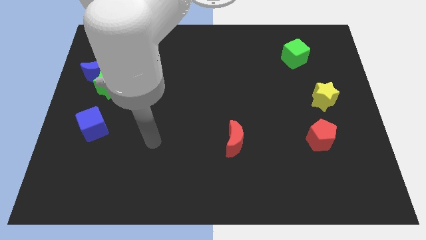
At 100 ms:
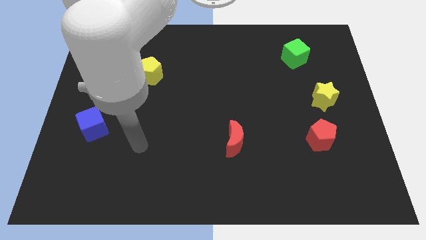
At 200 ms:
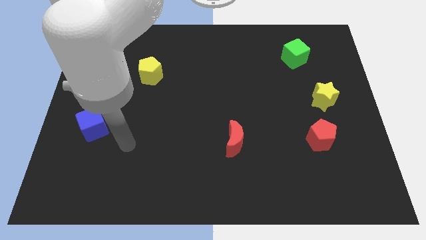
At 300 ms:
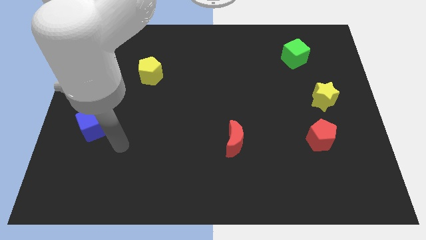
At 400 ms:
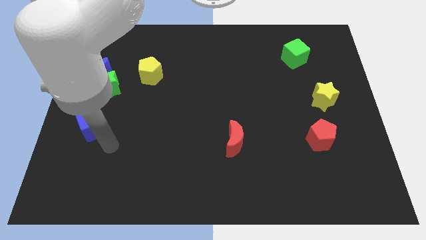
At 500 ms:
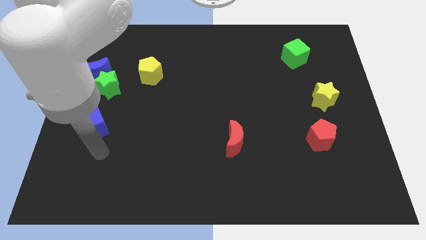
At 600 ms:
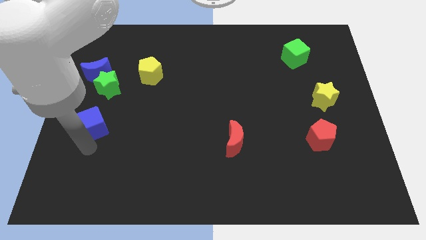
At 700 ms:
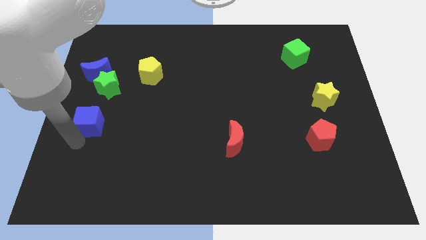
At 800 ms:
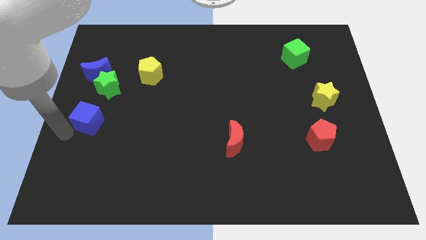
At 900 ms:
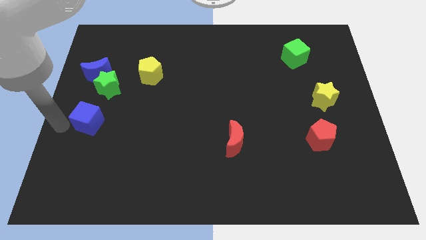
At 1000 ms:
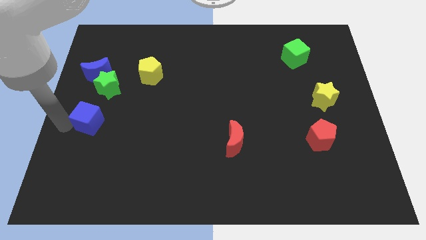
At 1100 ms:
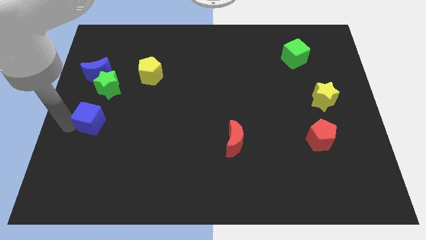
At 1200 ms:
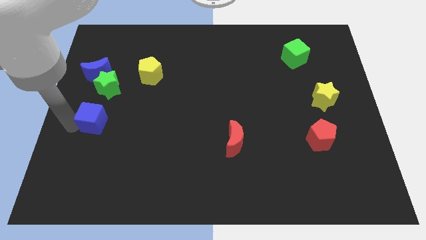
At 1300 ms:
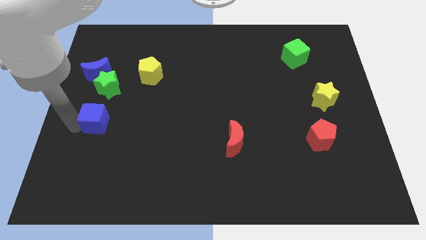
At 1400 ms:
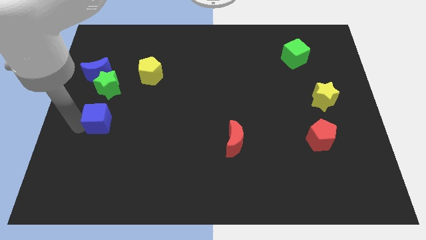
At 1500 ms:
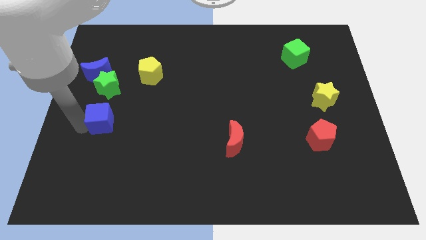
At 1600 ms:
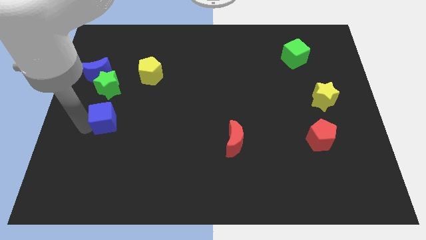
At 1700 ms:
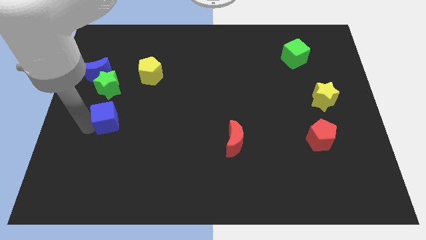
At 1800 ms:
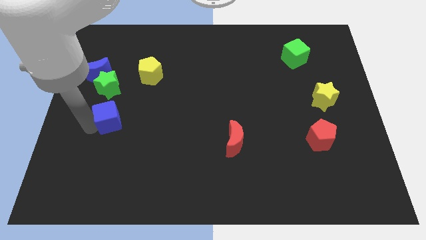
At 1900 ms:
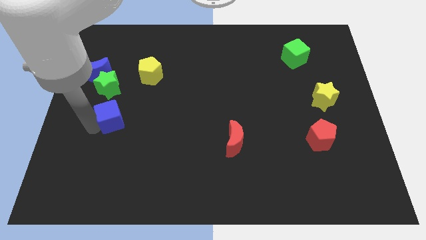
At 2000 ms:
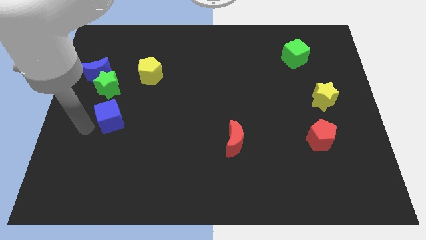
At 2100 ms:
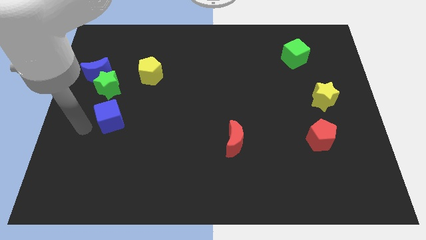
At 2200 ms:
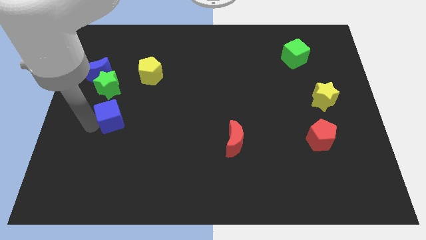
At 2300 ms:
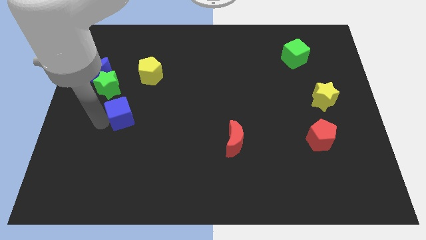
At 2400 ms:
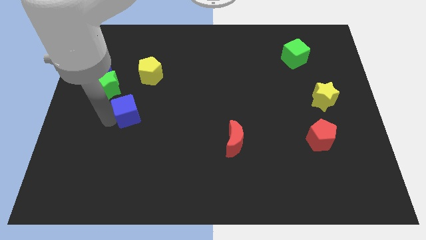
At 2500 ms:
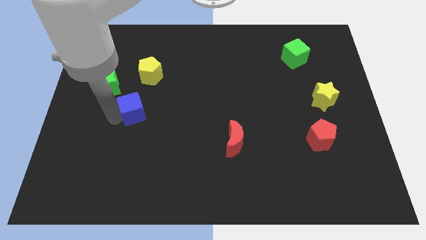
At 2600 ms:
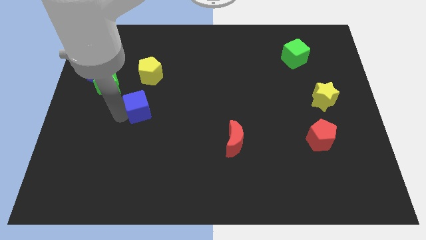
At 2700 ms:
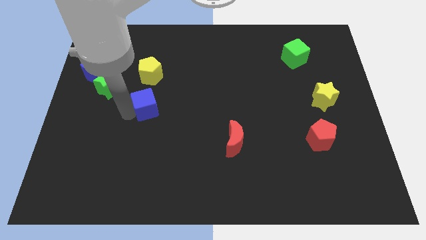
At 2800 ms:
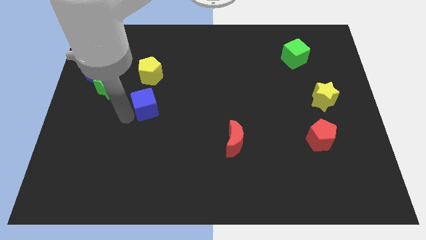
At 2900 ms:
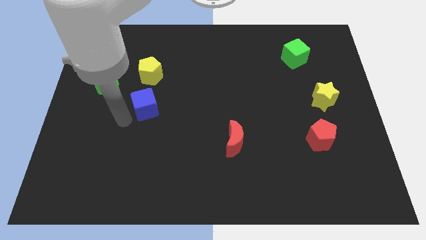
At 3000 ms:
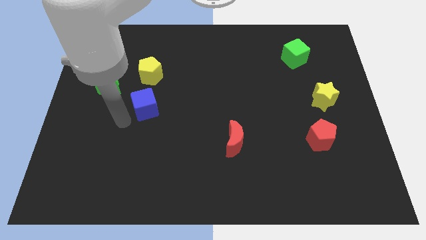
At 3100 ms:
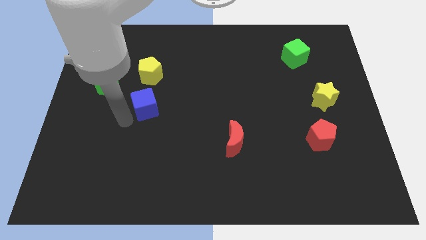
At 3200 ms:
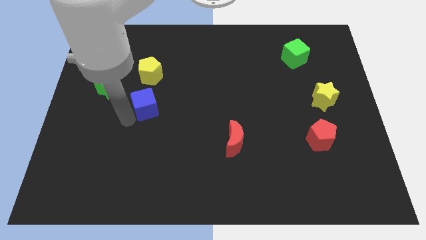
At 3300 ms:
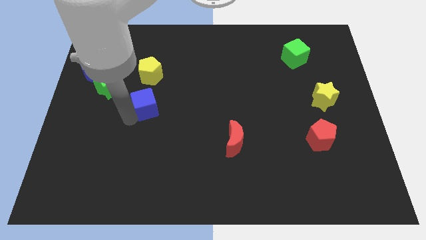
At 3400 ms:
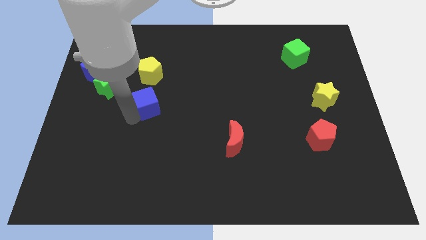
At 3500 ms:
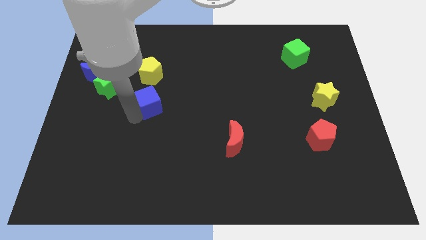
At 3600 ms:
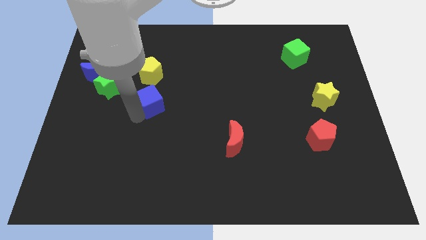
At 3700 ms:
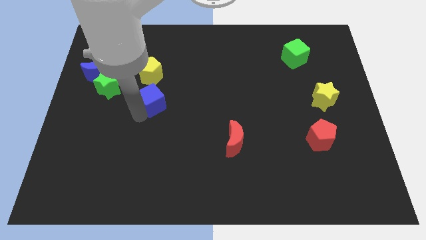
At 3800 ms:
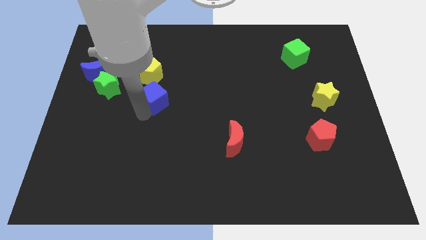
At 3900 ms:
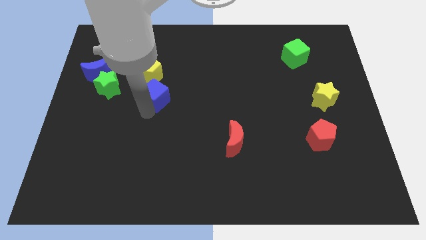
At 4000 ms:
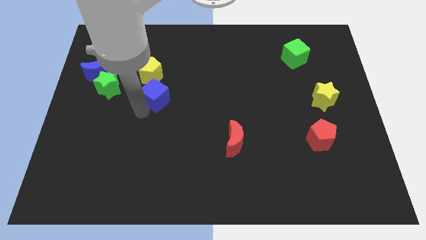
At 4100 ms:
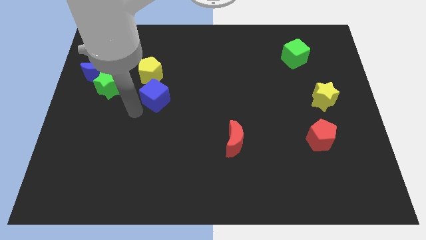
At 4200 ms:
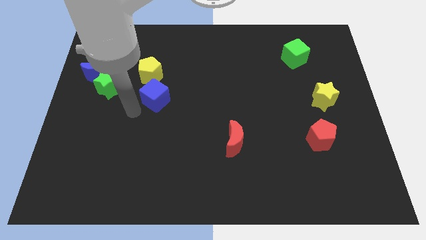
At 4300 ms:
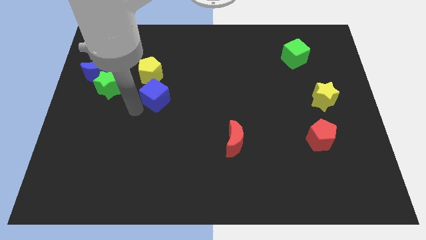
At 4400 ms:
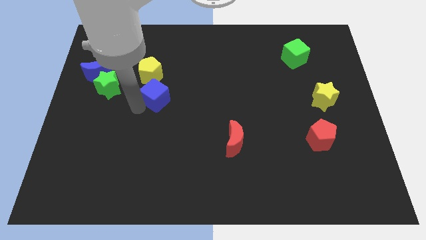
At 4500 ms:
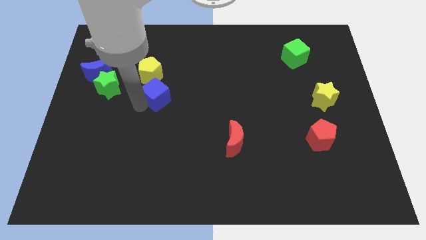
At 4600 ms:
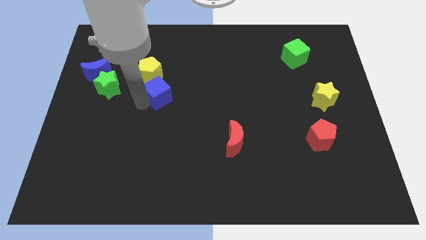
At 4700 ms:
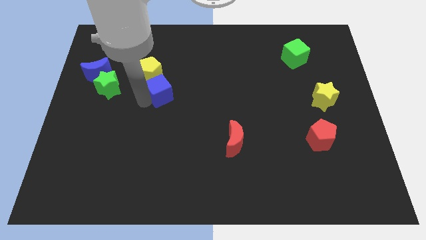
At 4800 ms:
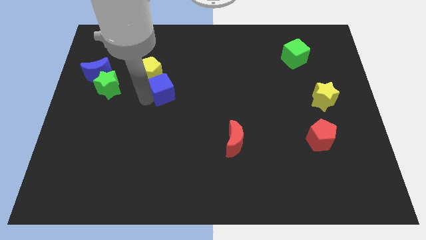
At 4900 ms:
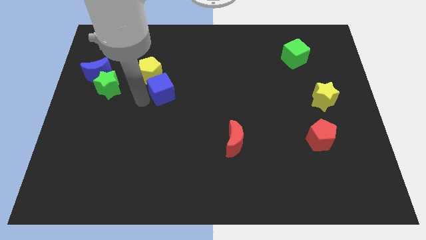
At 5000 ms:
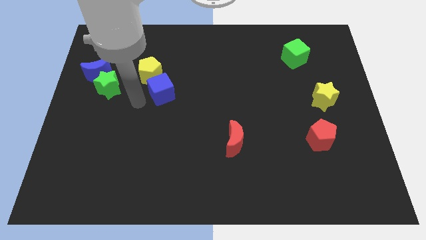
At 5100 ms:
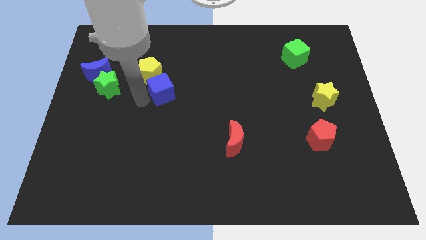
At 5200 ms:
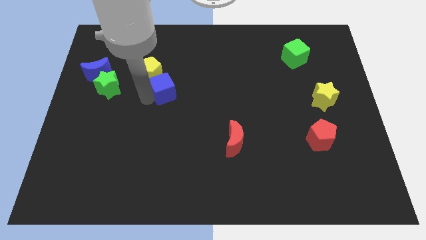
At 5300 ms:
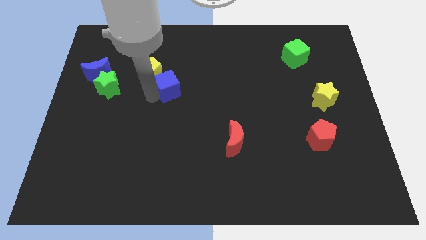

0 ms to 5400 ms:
slide the blue cube right of the yellow pentagon

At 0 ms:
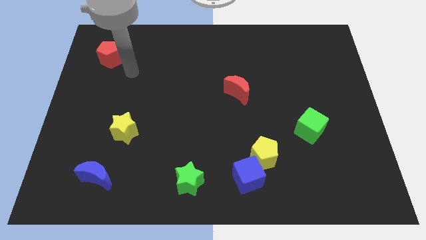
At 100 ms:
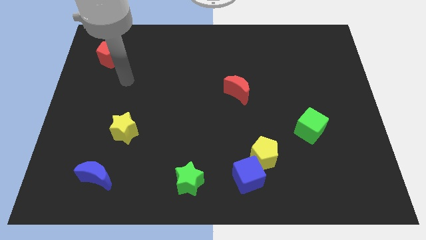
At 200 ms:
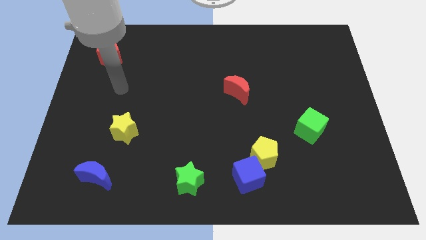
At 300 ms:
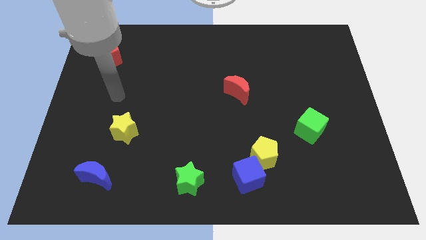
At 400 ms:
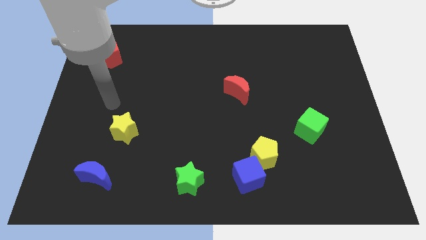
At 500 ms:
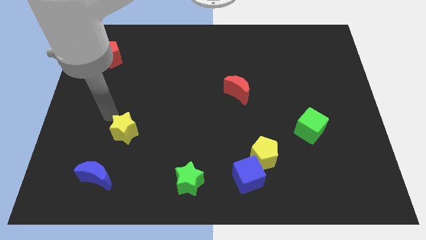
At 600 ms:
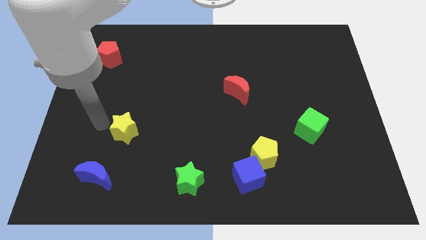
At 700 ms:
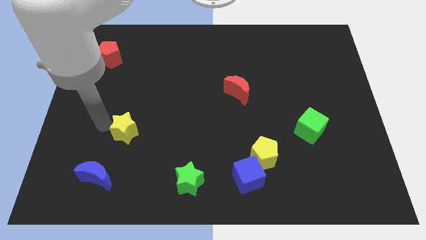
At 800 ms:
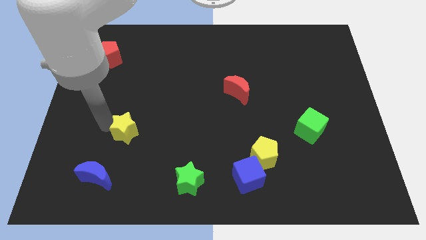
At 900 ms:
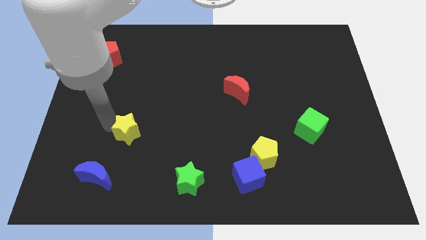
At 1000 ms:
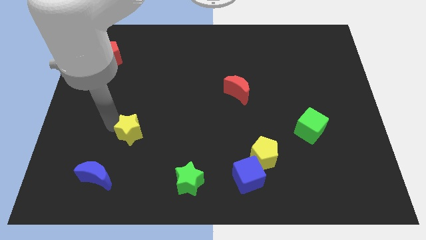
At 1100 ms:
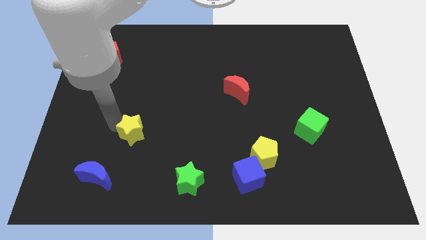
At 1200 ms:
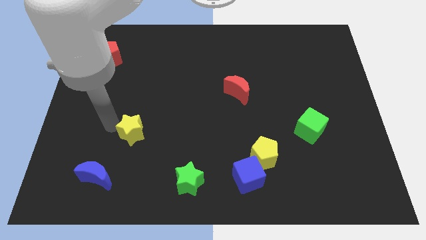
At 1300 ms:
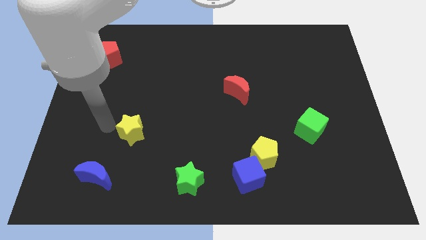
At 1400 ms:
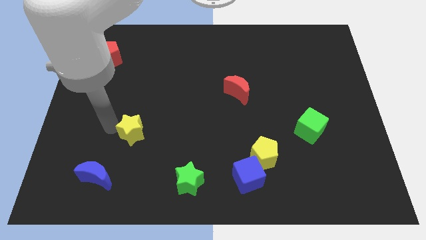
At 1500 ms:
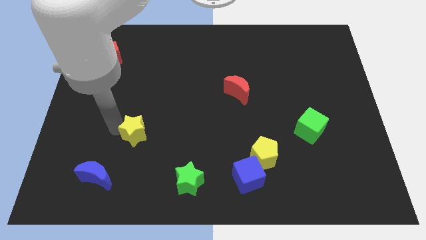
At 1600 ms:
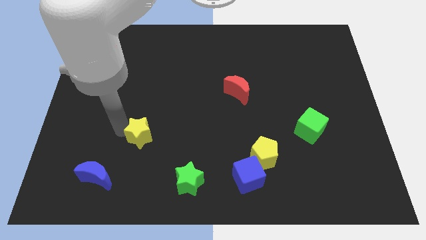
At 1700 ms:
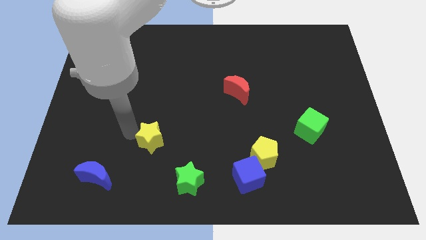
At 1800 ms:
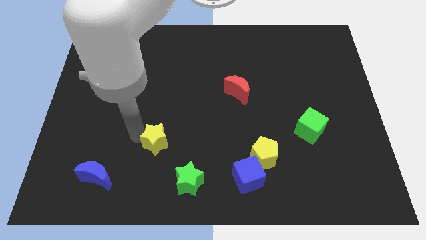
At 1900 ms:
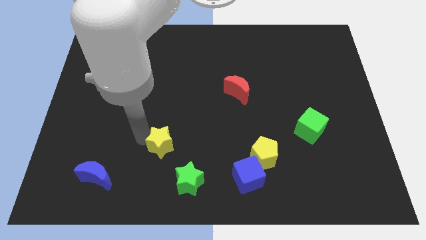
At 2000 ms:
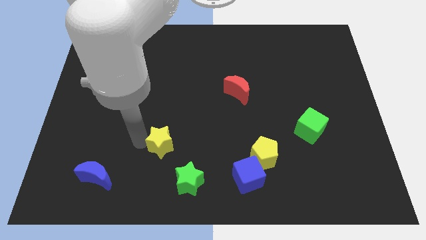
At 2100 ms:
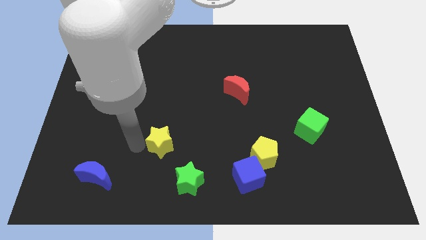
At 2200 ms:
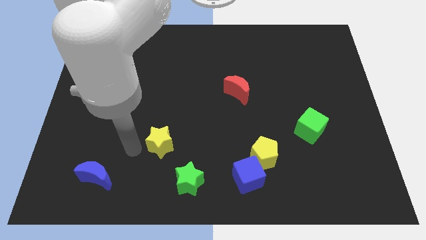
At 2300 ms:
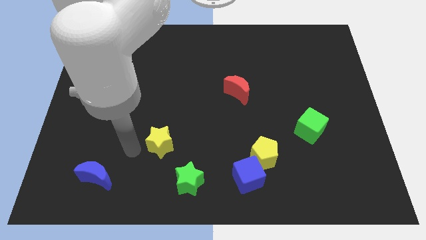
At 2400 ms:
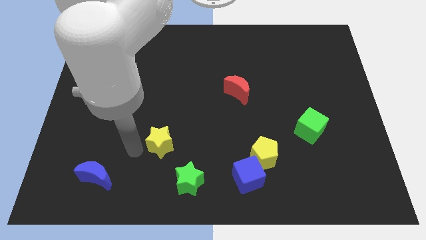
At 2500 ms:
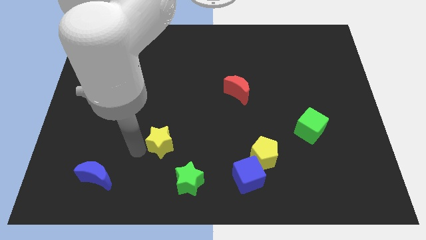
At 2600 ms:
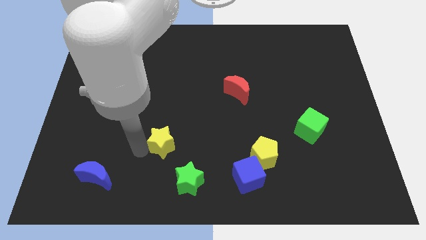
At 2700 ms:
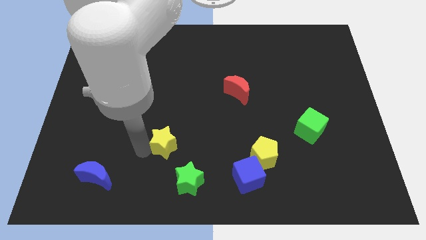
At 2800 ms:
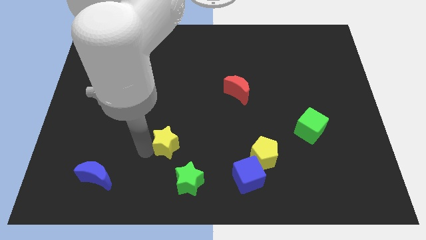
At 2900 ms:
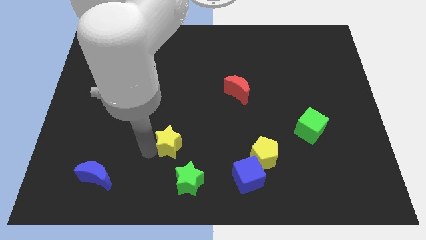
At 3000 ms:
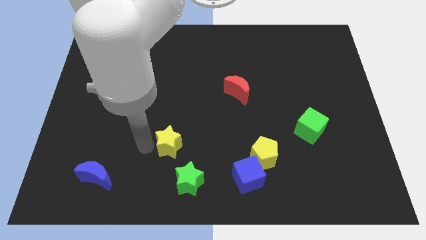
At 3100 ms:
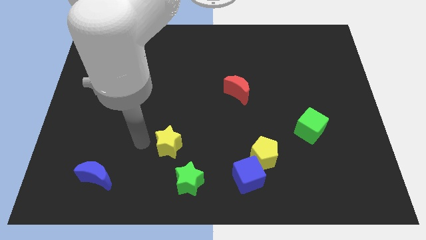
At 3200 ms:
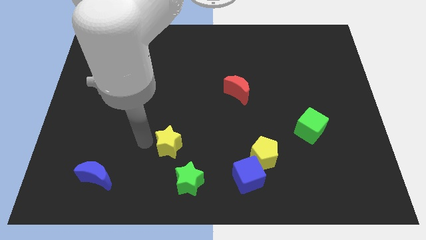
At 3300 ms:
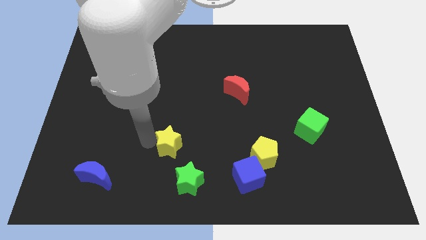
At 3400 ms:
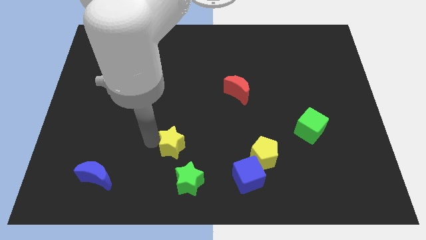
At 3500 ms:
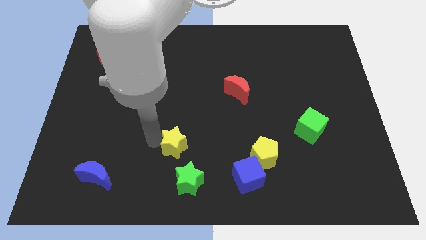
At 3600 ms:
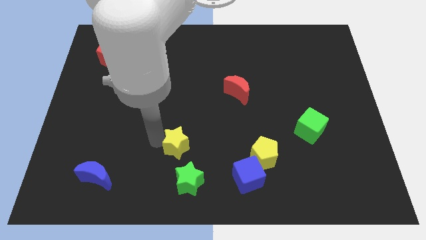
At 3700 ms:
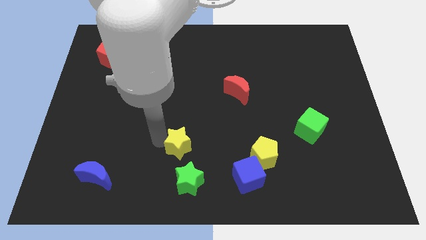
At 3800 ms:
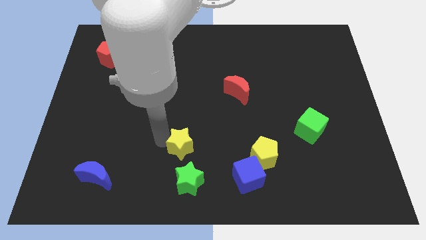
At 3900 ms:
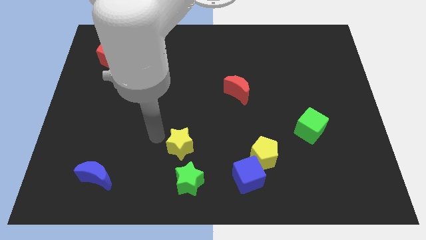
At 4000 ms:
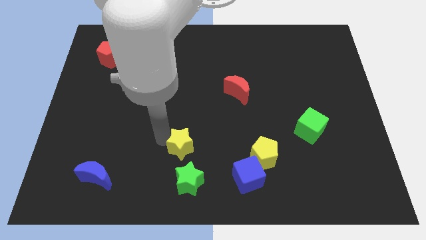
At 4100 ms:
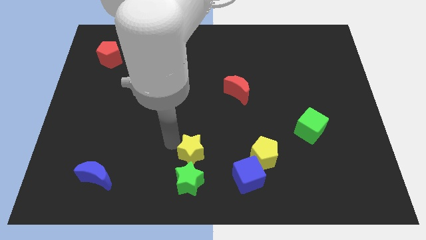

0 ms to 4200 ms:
move the yellow star diagonally up and to the right of the green star
